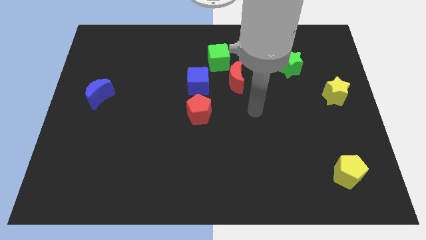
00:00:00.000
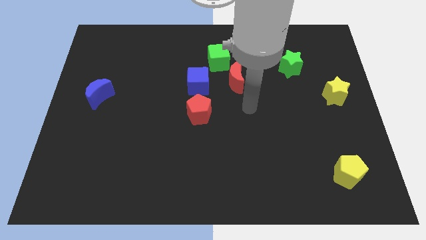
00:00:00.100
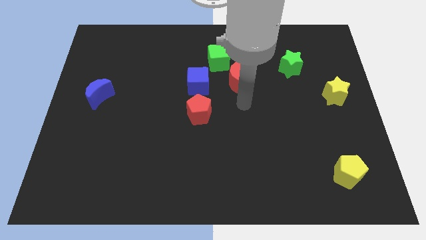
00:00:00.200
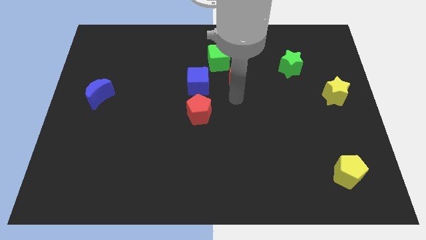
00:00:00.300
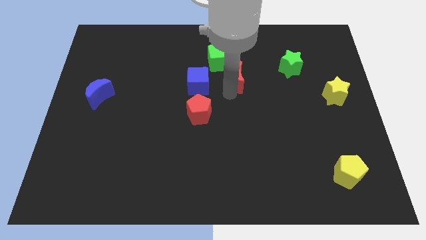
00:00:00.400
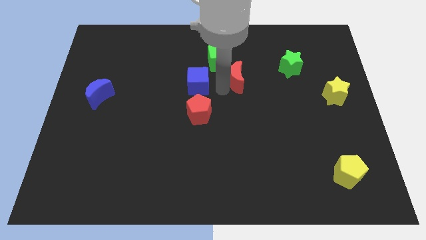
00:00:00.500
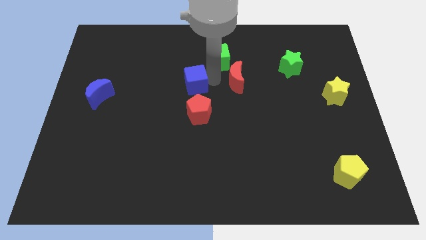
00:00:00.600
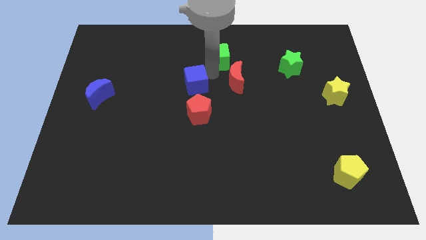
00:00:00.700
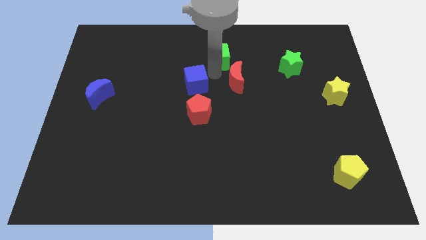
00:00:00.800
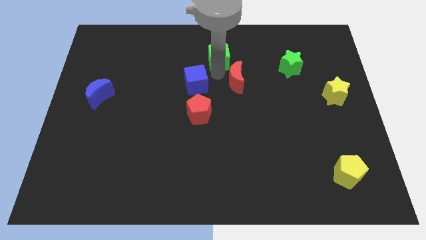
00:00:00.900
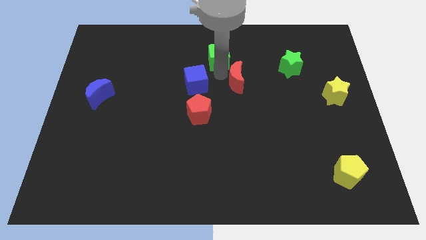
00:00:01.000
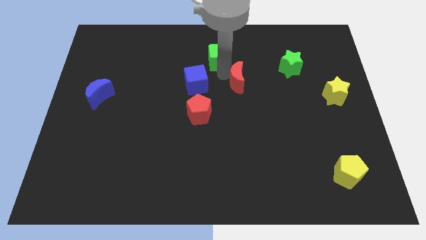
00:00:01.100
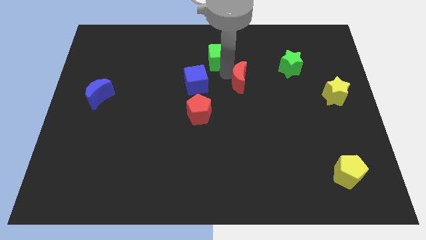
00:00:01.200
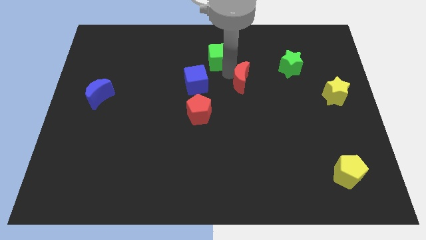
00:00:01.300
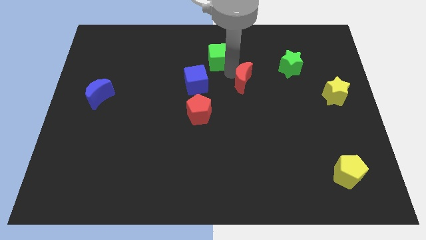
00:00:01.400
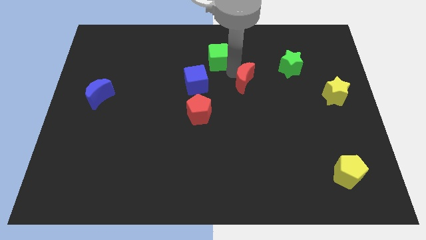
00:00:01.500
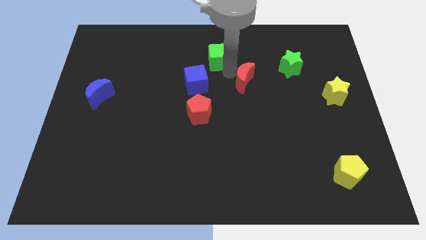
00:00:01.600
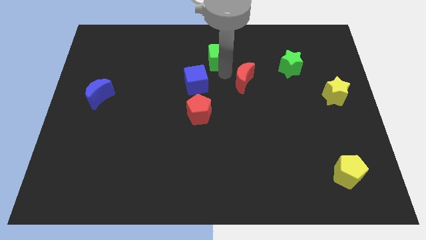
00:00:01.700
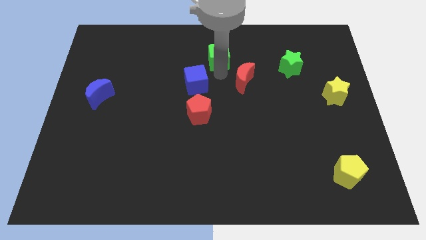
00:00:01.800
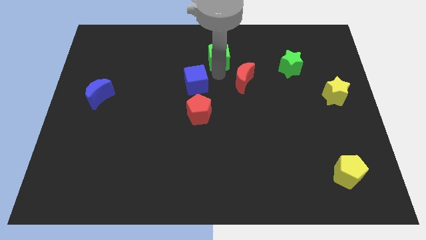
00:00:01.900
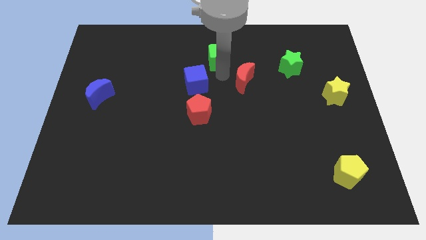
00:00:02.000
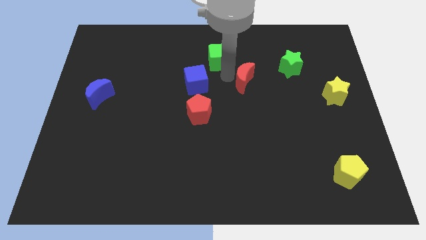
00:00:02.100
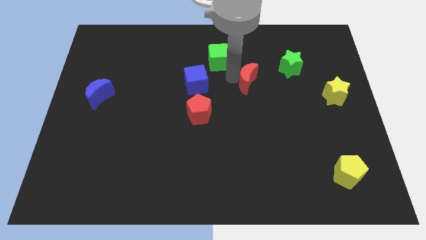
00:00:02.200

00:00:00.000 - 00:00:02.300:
move the red moon away from the green cube and blue cube

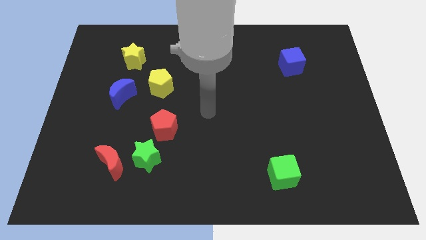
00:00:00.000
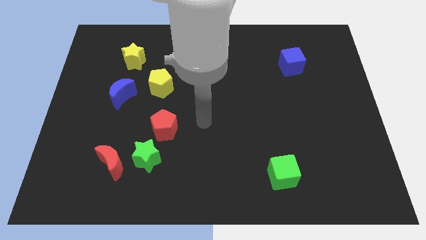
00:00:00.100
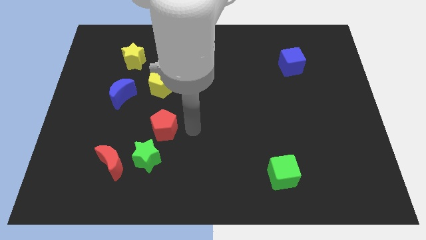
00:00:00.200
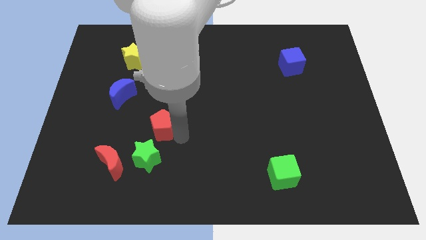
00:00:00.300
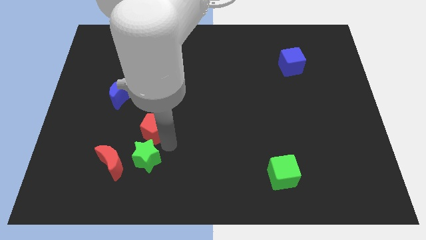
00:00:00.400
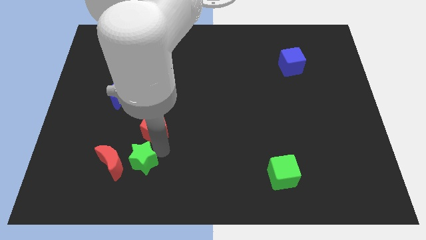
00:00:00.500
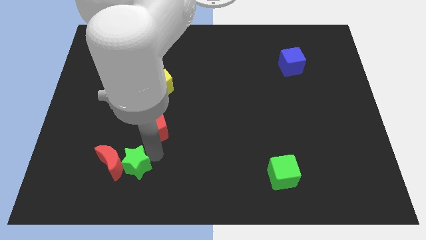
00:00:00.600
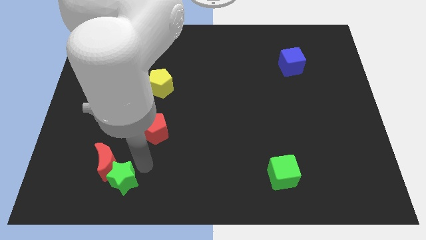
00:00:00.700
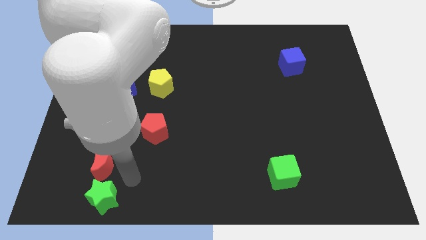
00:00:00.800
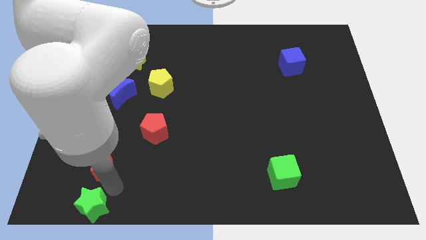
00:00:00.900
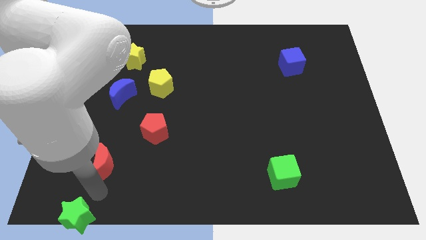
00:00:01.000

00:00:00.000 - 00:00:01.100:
pull the red moon apart from the green star

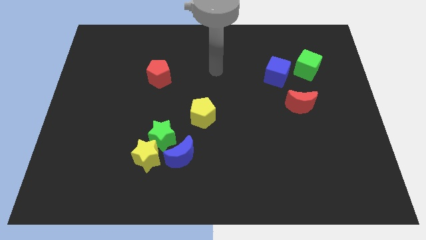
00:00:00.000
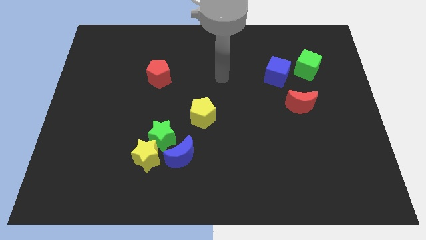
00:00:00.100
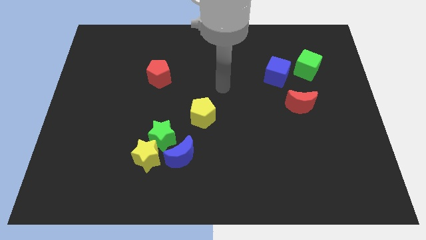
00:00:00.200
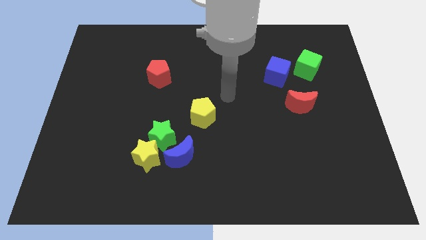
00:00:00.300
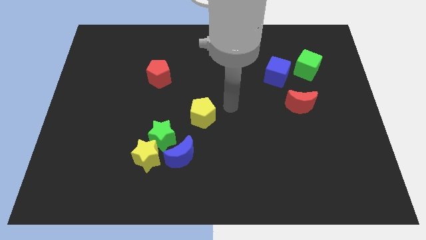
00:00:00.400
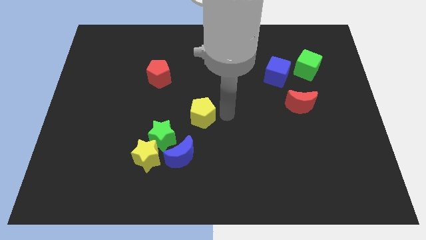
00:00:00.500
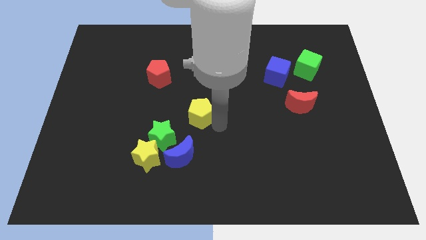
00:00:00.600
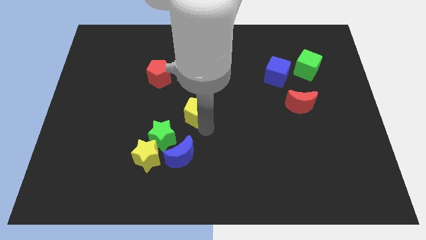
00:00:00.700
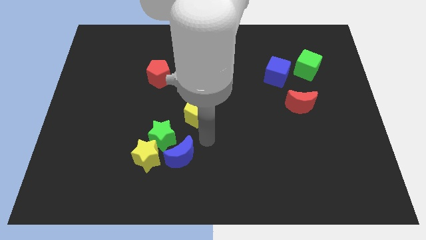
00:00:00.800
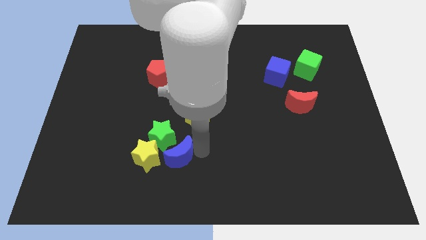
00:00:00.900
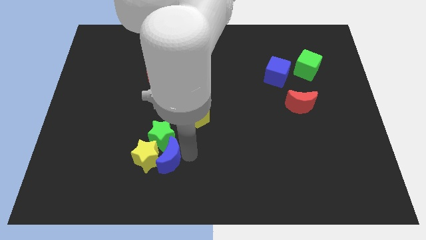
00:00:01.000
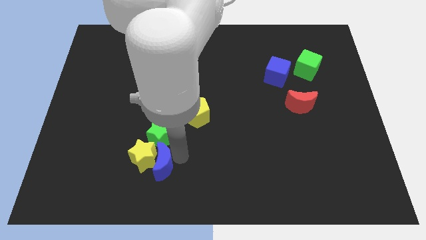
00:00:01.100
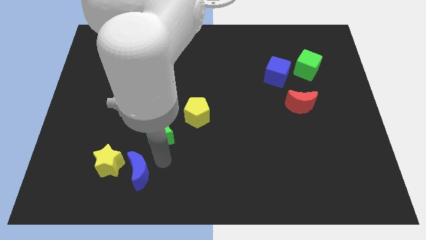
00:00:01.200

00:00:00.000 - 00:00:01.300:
move the green star away from the yellow star and blue moon

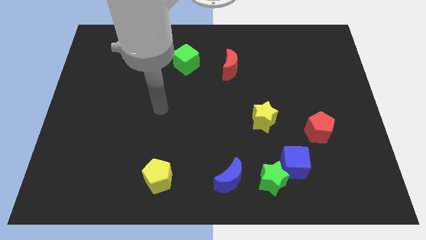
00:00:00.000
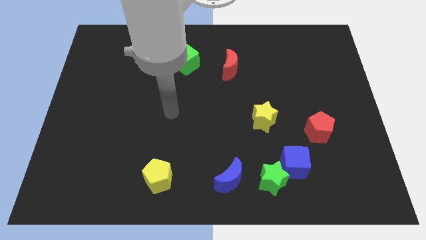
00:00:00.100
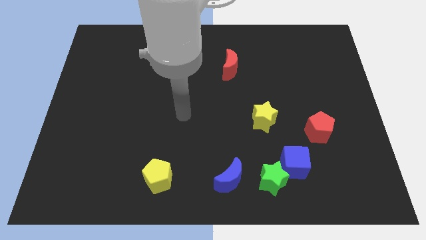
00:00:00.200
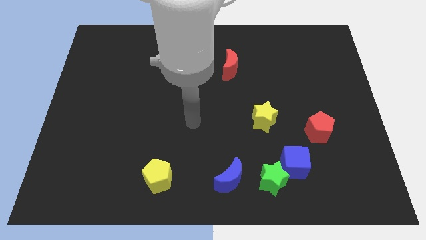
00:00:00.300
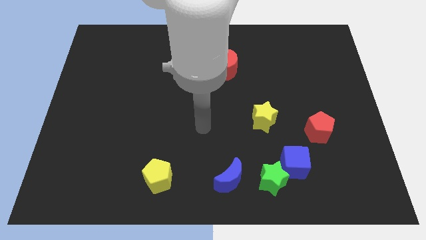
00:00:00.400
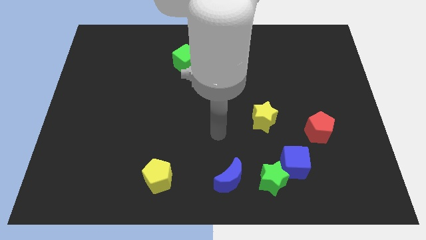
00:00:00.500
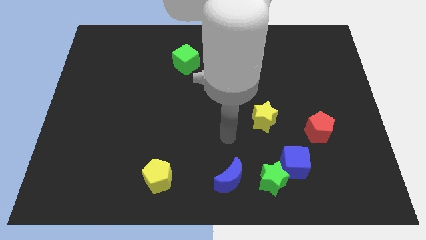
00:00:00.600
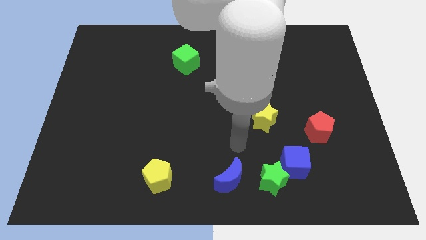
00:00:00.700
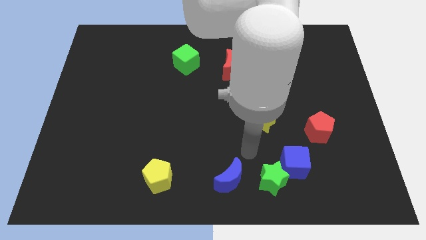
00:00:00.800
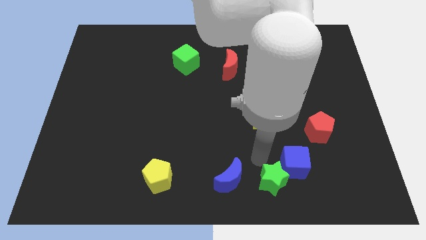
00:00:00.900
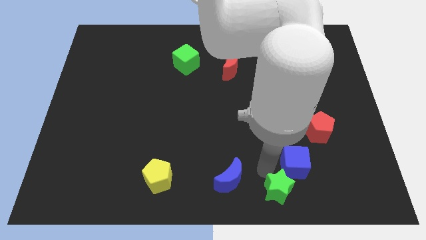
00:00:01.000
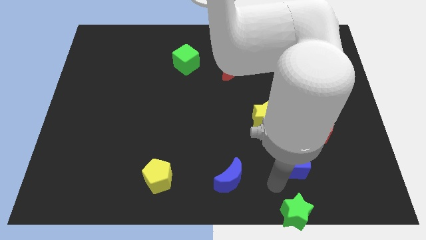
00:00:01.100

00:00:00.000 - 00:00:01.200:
pull the blue cube apart from the green star

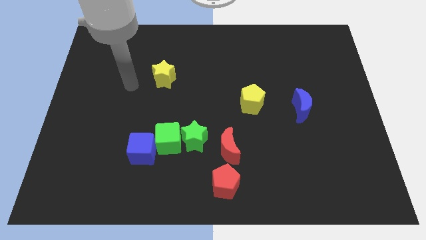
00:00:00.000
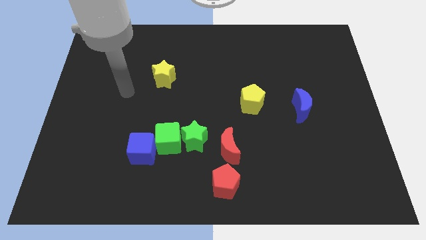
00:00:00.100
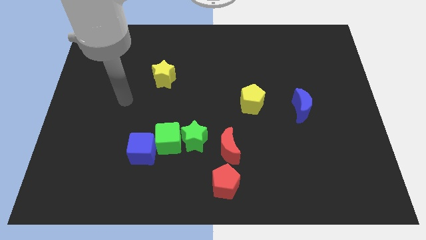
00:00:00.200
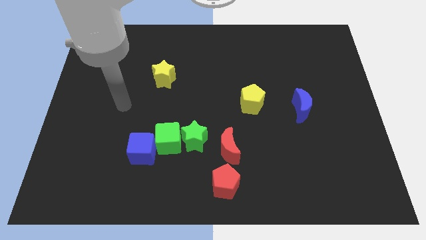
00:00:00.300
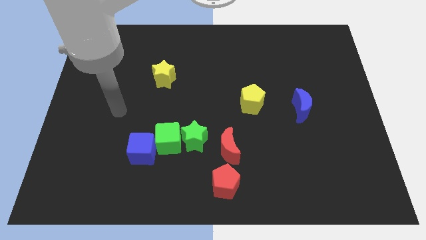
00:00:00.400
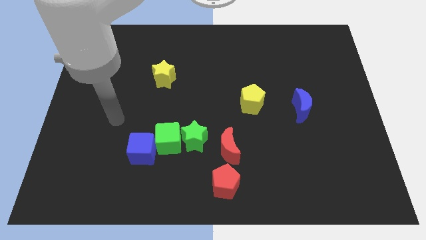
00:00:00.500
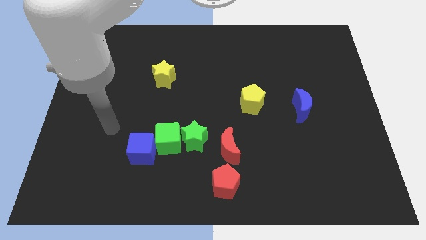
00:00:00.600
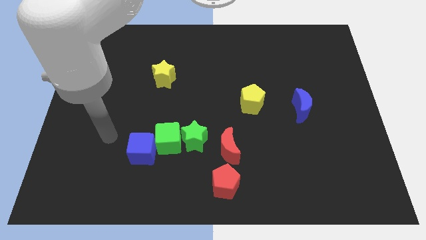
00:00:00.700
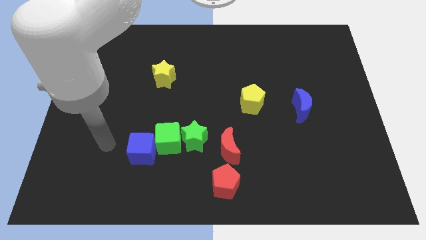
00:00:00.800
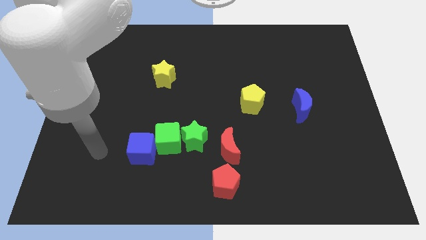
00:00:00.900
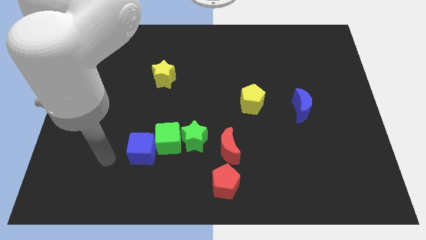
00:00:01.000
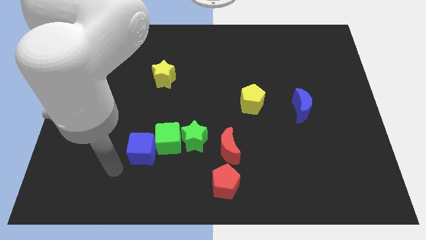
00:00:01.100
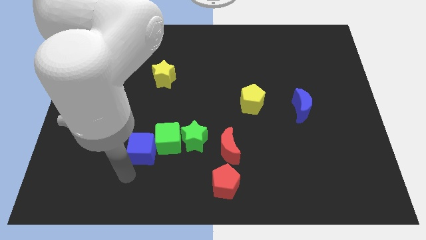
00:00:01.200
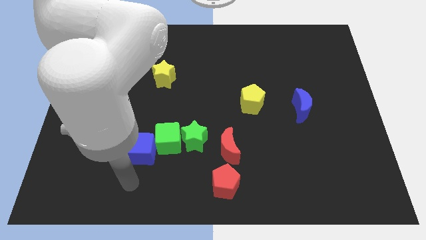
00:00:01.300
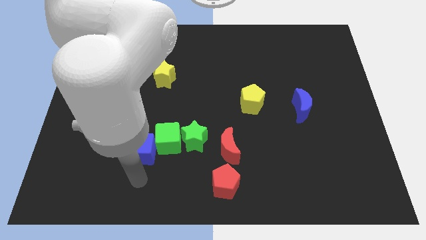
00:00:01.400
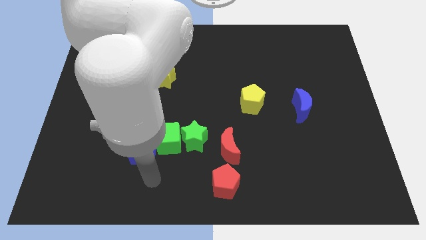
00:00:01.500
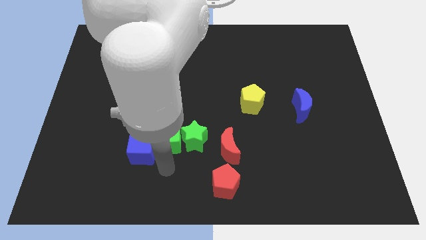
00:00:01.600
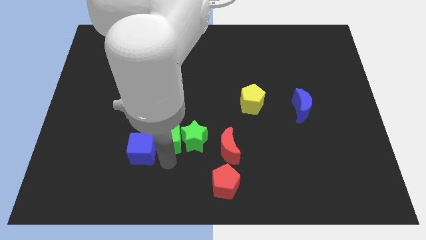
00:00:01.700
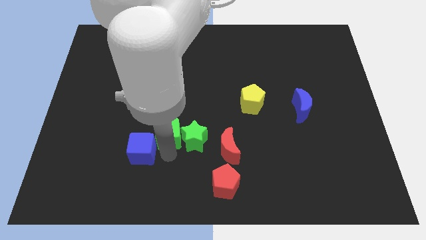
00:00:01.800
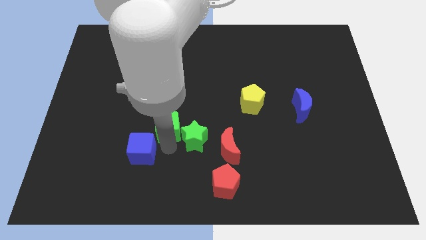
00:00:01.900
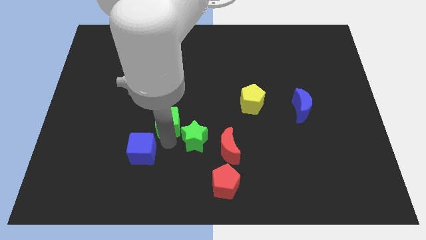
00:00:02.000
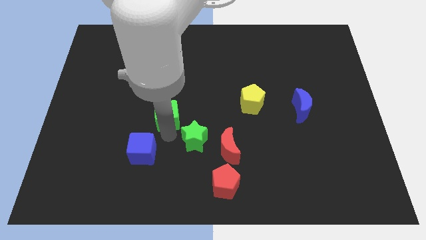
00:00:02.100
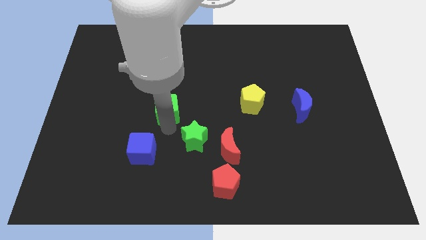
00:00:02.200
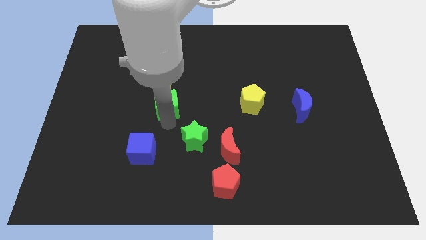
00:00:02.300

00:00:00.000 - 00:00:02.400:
move the green cube away from the green star and blue cube

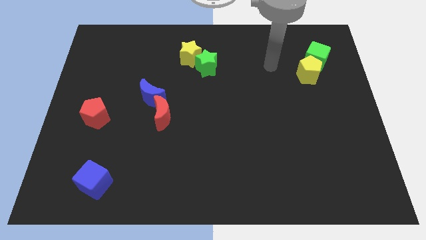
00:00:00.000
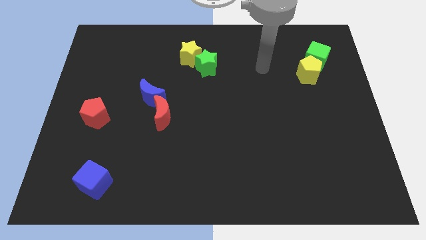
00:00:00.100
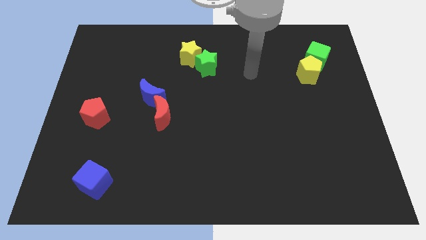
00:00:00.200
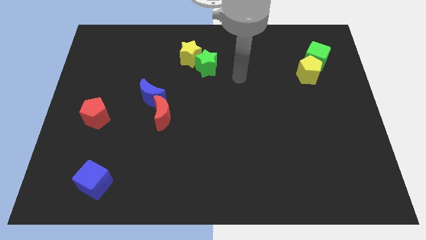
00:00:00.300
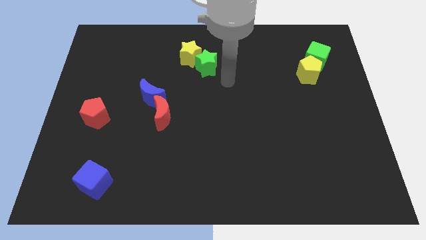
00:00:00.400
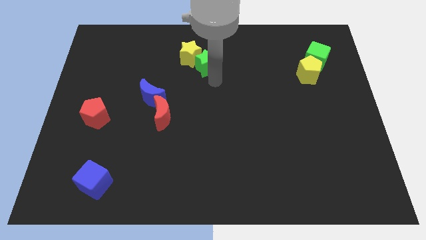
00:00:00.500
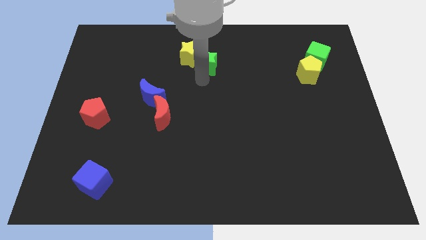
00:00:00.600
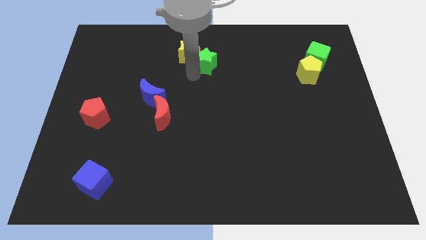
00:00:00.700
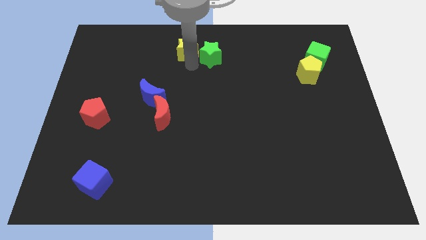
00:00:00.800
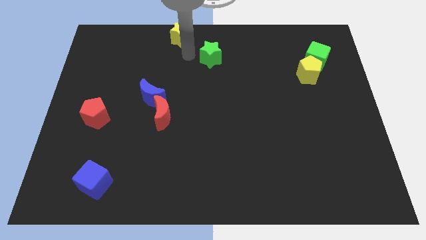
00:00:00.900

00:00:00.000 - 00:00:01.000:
separate the green star from the yellow star
